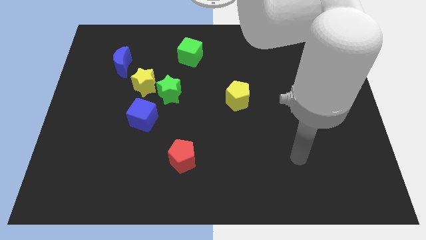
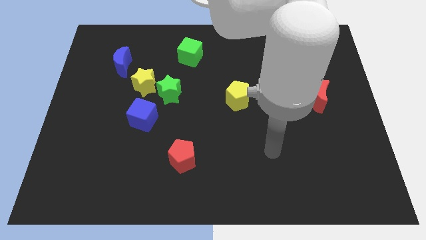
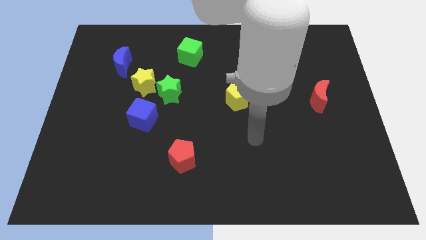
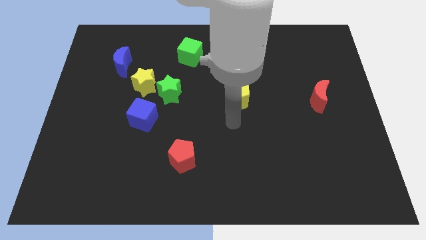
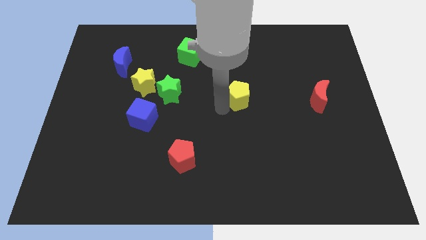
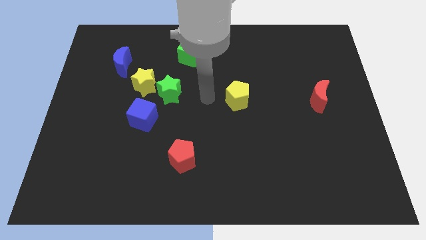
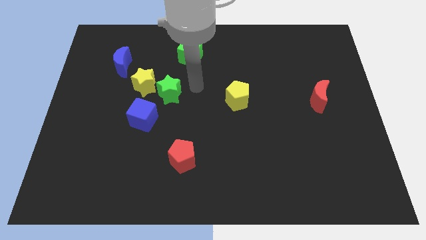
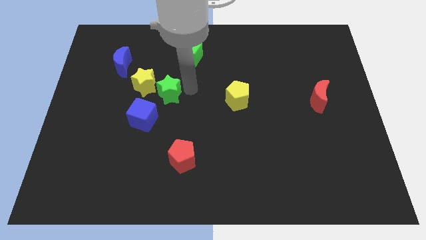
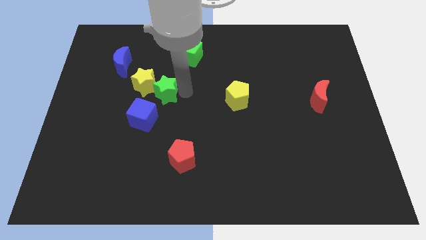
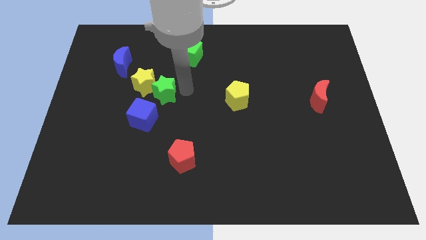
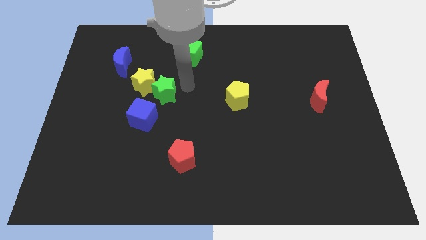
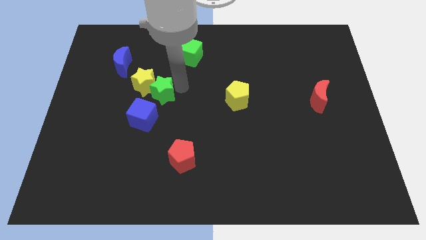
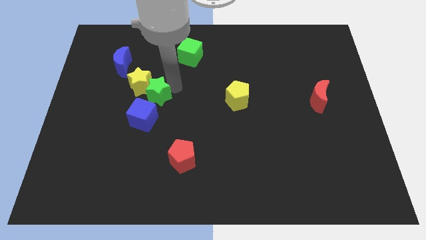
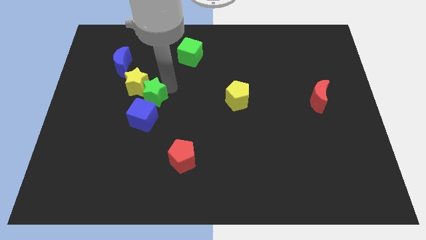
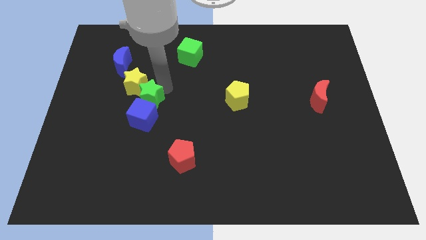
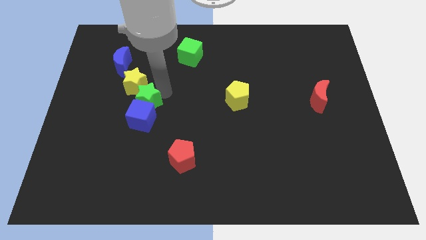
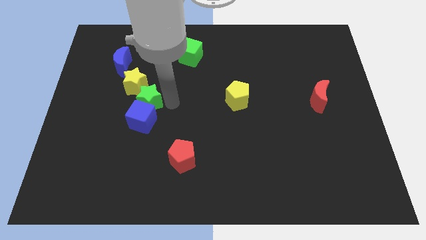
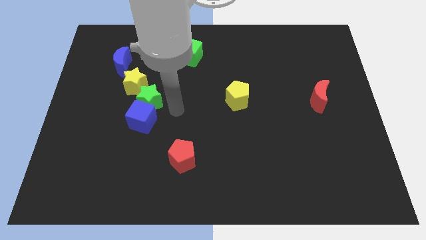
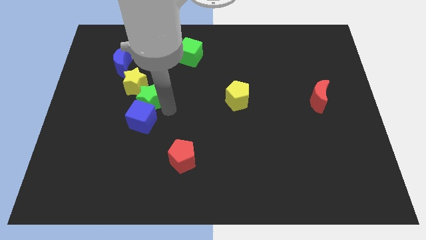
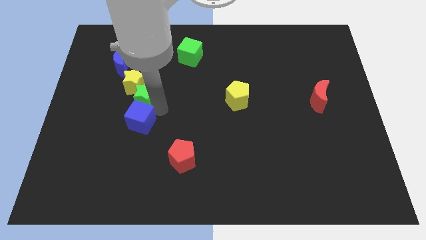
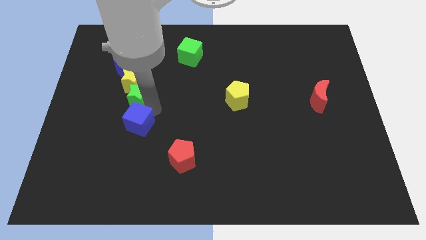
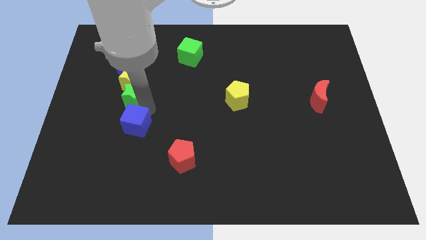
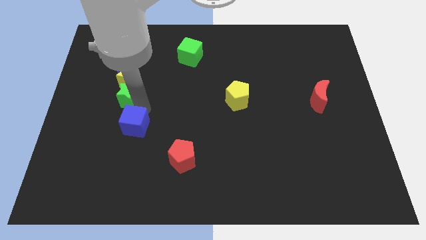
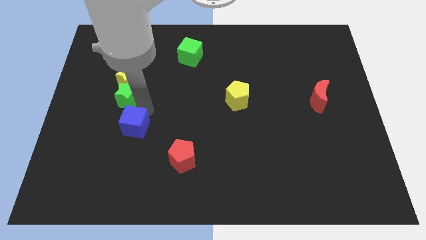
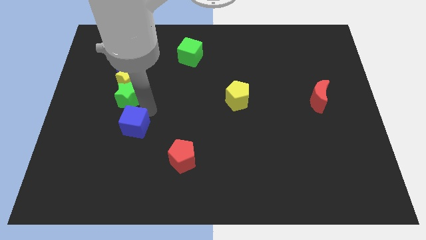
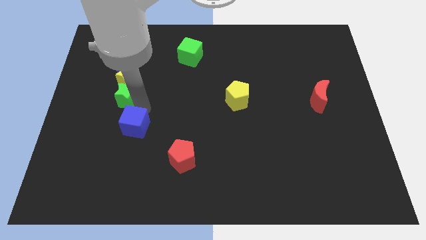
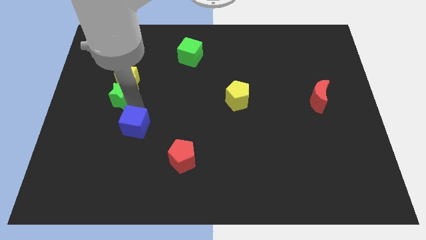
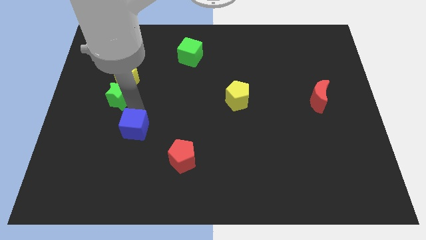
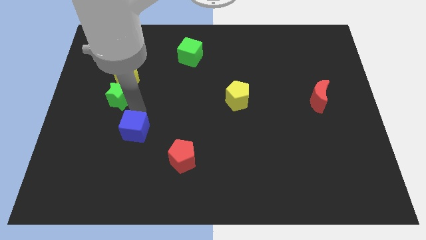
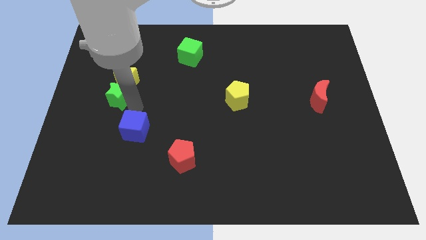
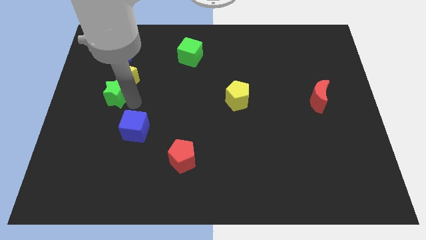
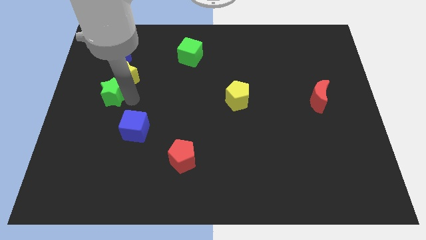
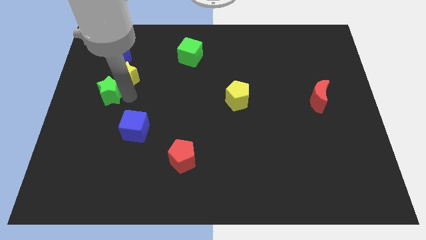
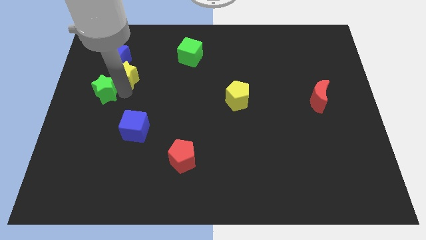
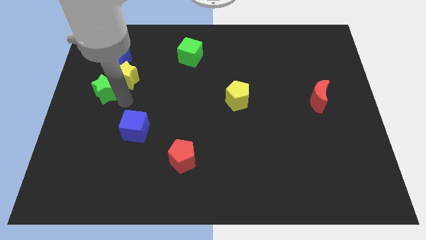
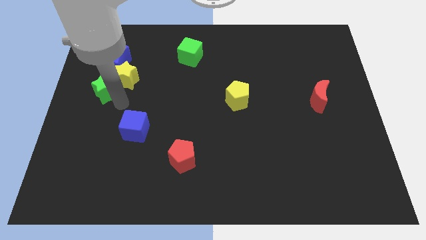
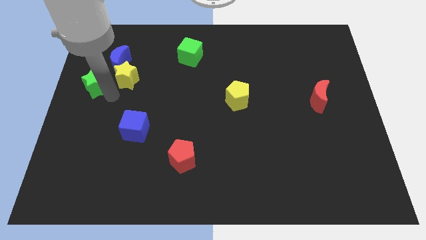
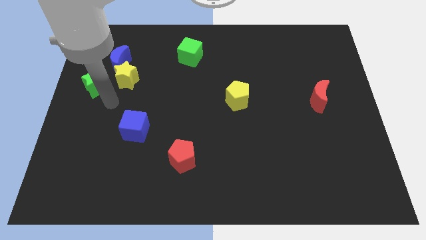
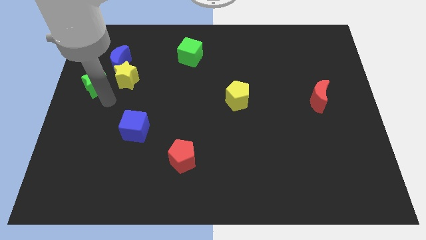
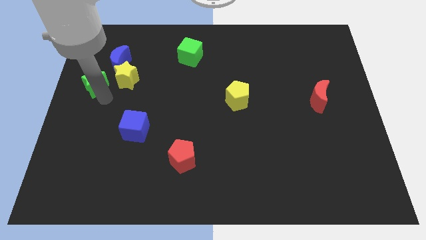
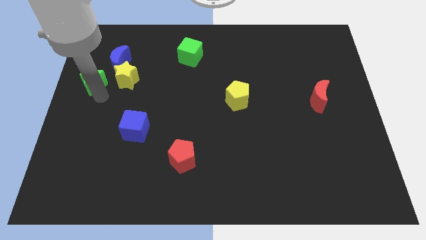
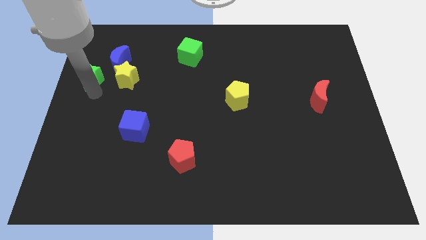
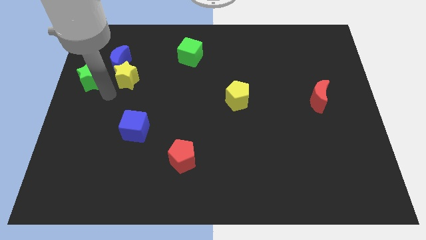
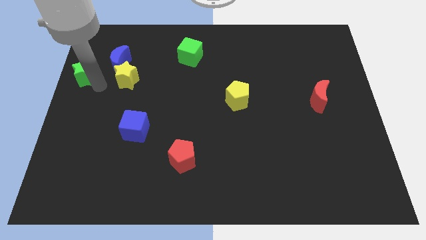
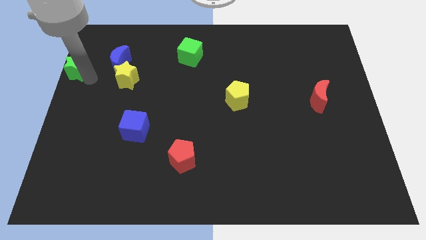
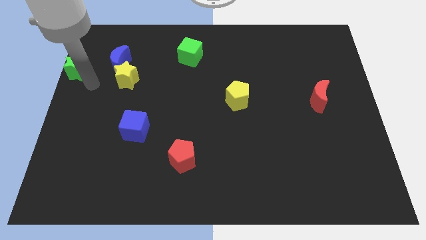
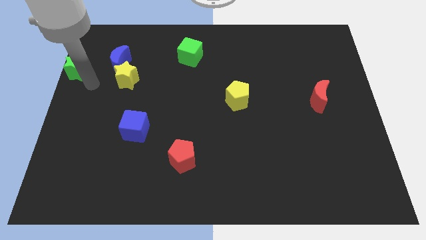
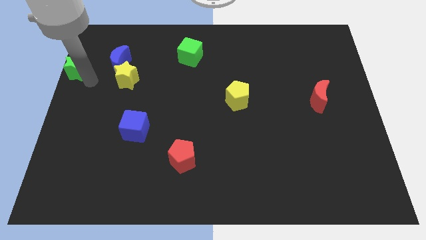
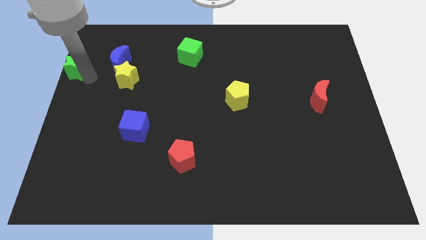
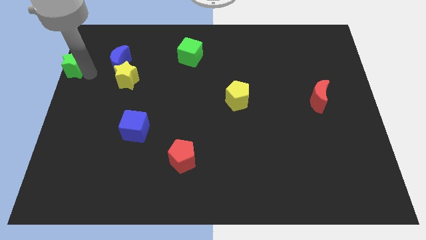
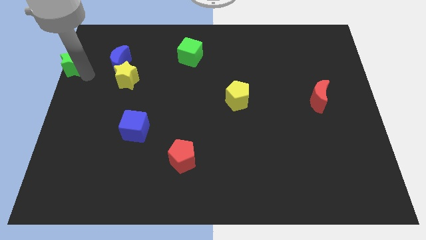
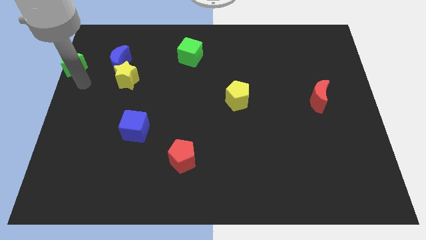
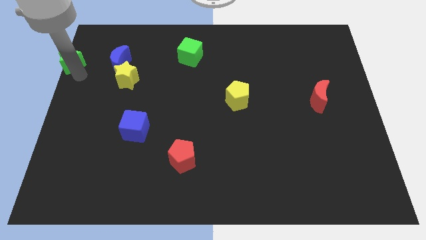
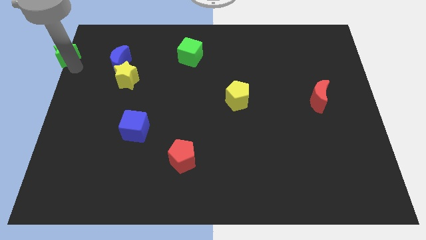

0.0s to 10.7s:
push the green star to the upper left corner

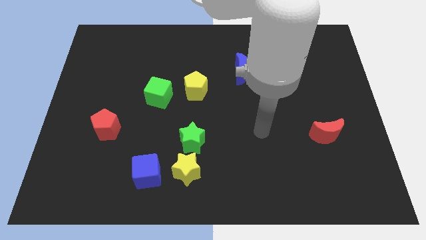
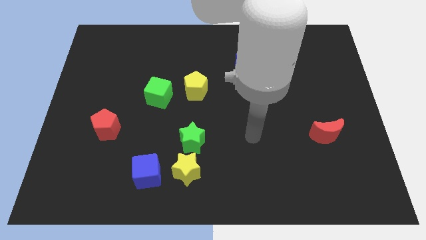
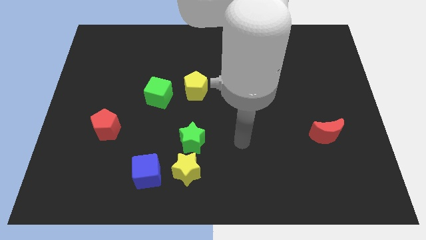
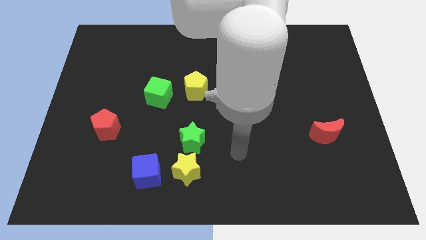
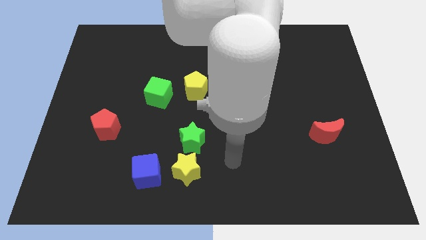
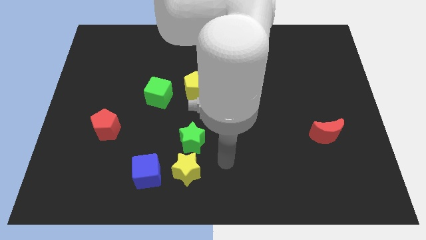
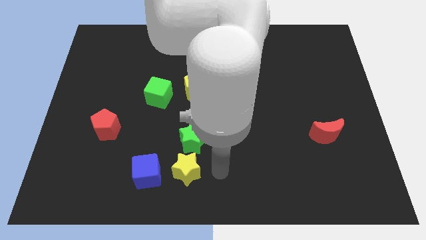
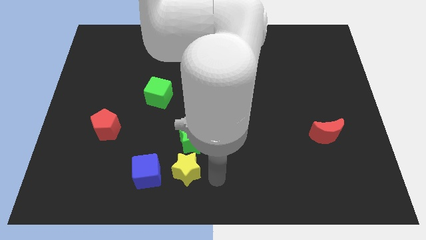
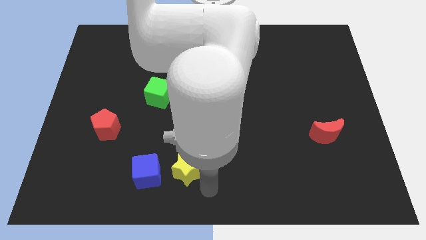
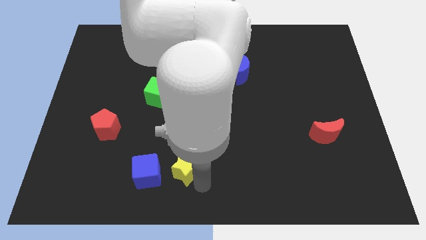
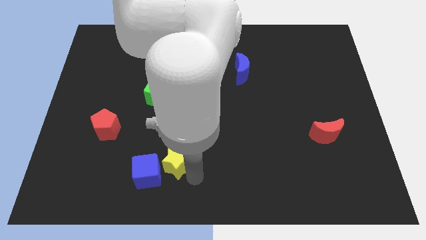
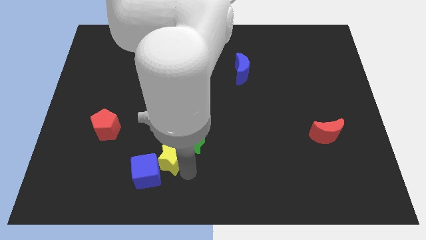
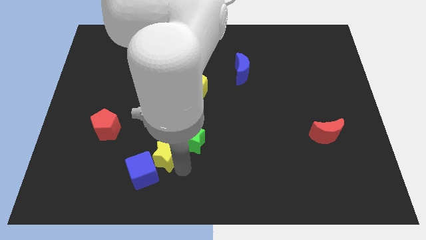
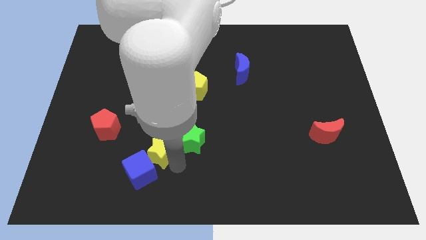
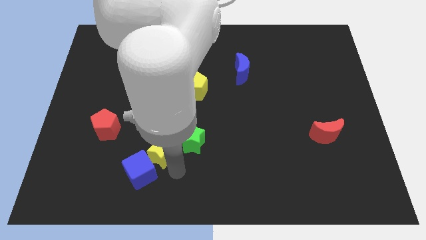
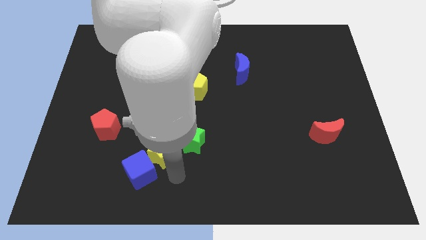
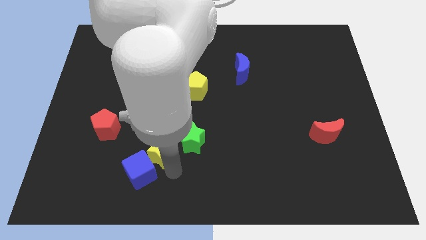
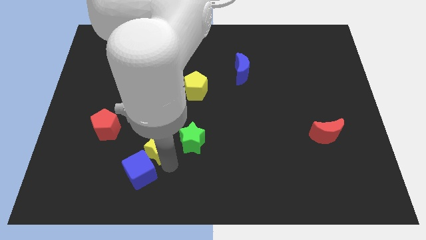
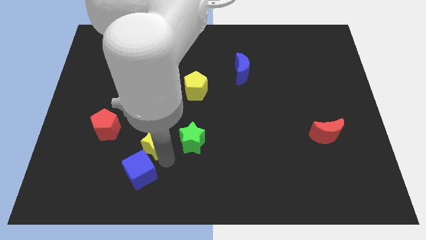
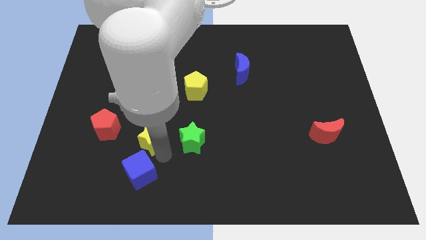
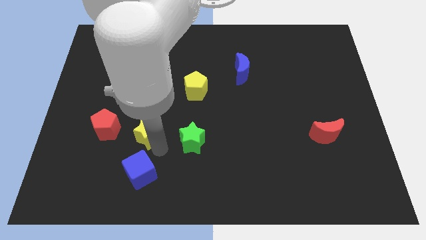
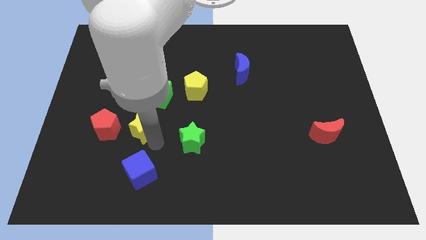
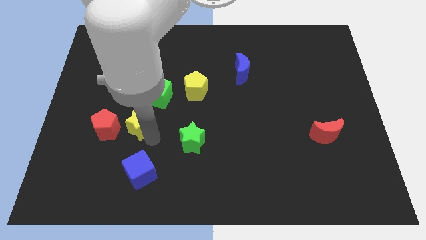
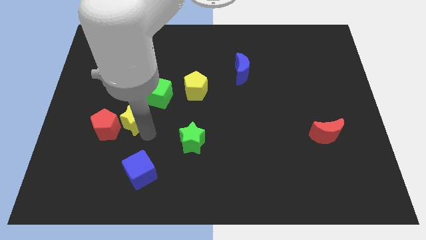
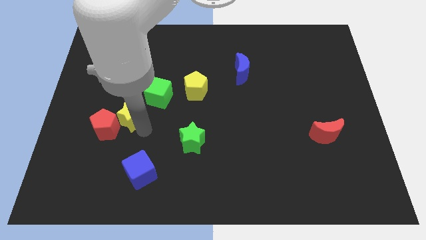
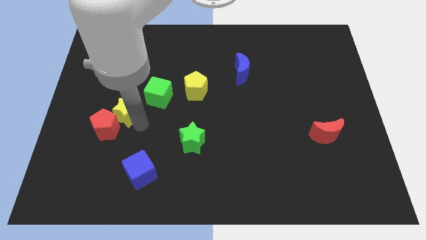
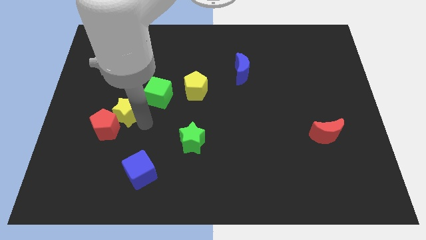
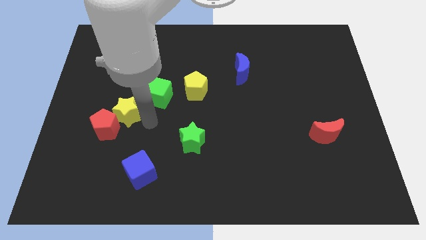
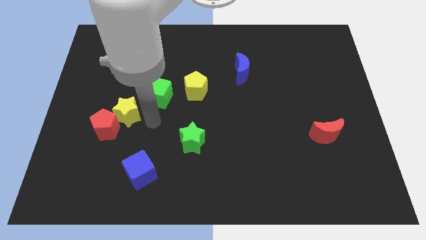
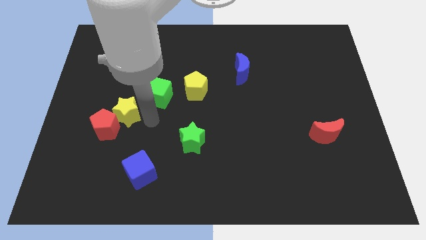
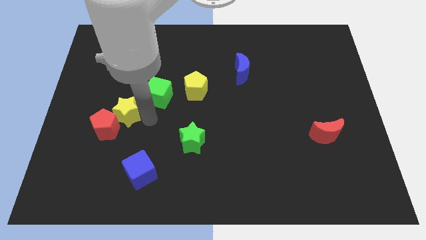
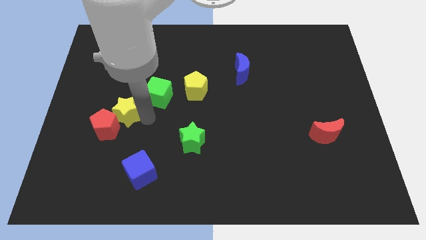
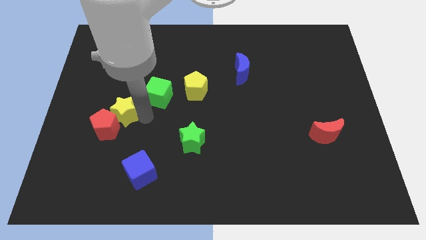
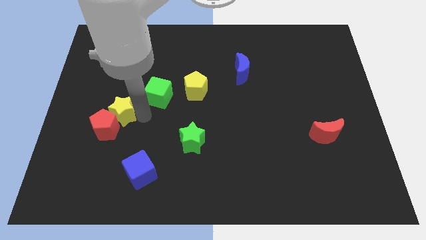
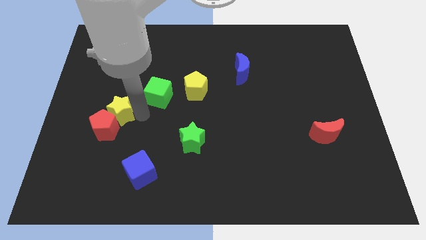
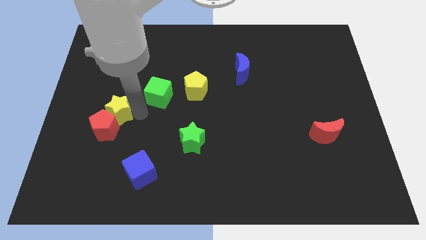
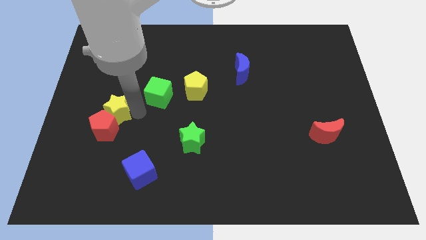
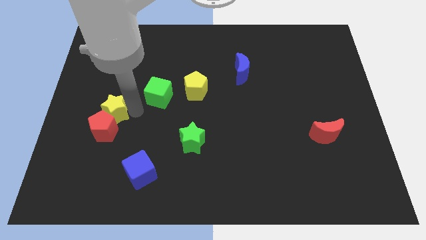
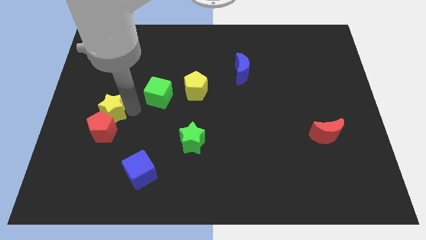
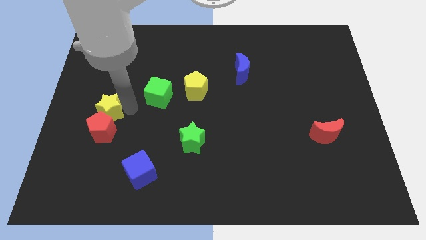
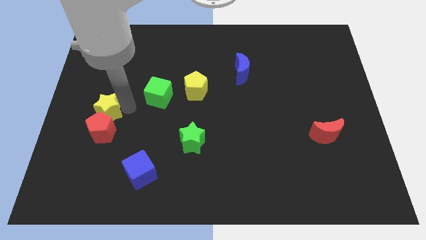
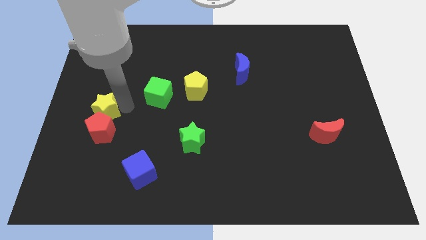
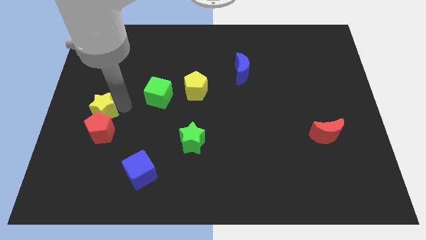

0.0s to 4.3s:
slide the yellow star to the center left
